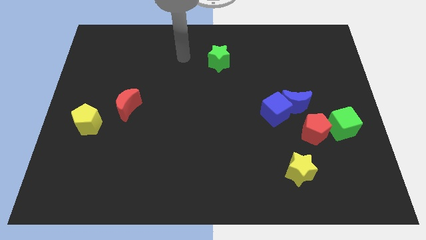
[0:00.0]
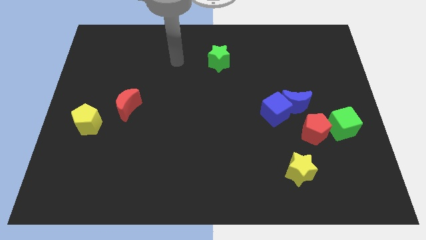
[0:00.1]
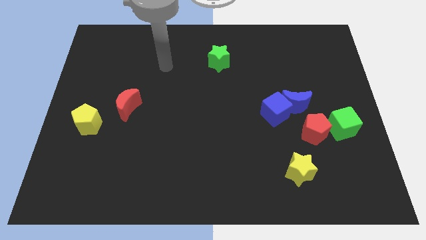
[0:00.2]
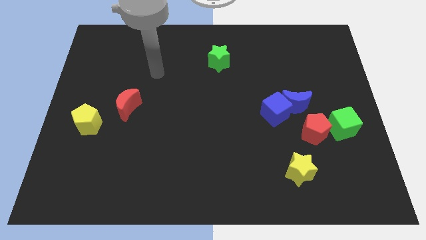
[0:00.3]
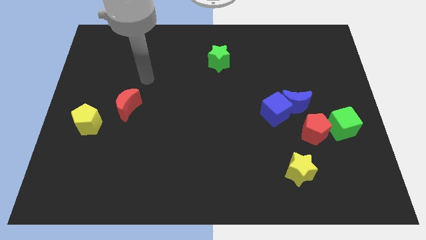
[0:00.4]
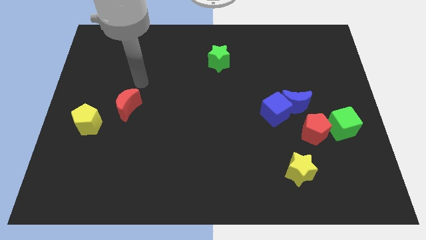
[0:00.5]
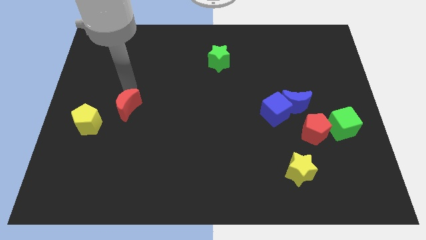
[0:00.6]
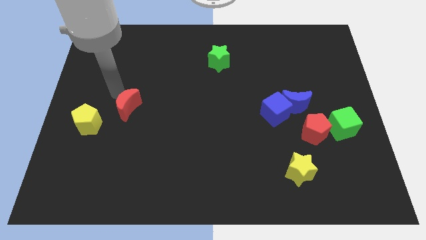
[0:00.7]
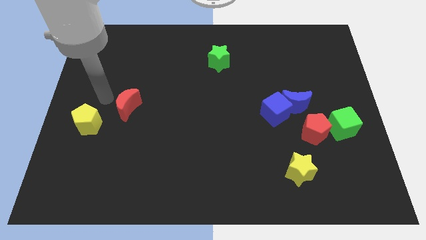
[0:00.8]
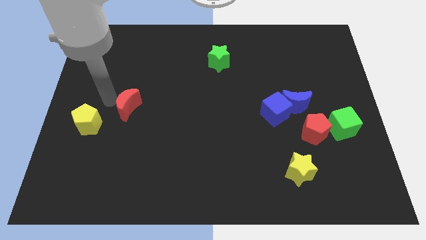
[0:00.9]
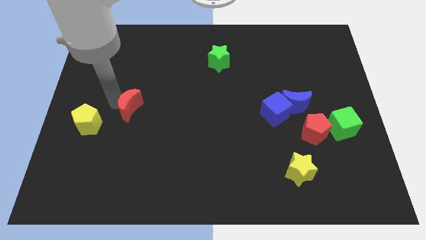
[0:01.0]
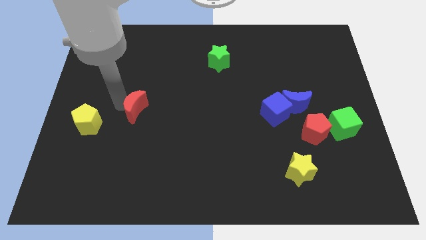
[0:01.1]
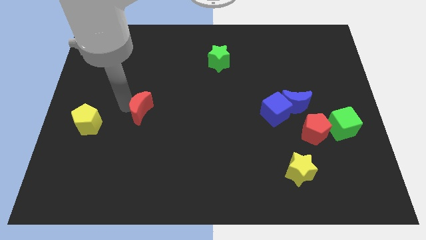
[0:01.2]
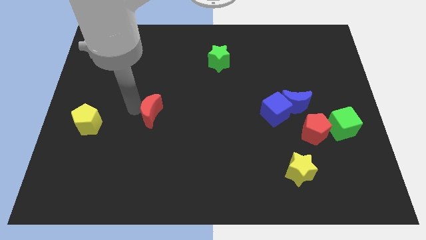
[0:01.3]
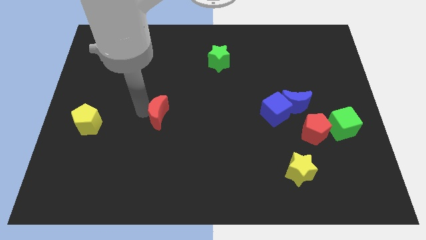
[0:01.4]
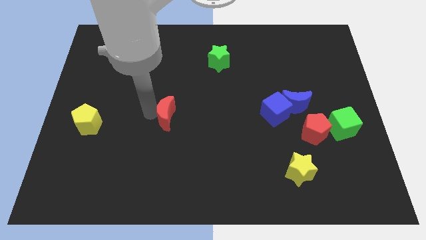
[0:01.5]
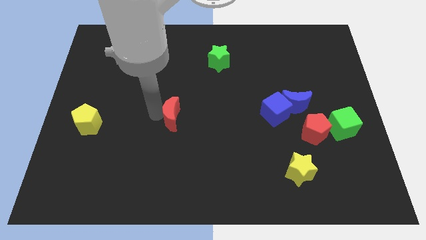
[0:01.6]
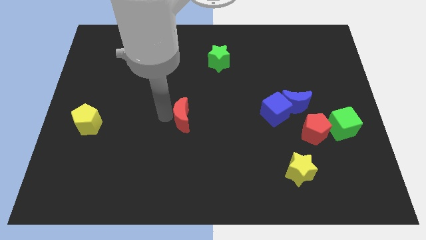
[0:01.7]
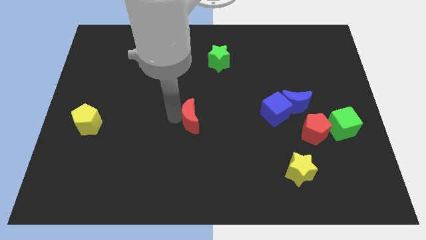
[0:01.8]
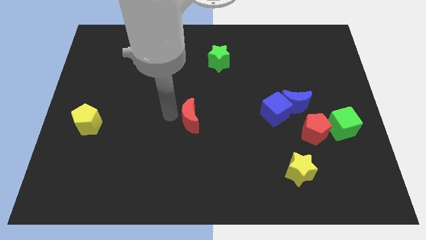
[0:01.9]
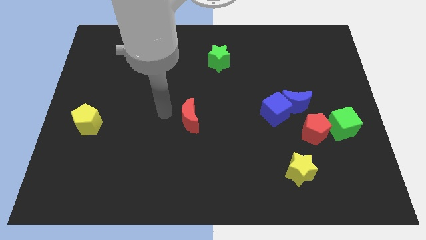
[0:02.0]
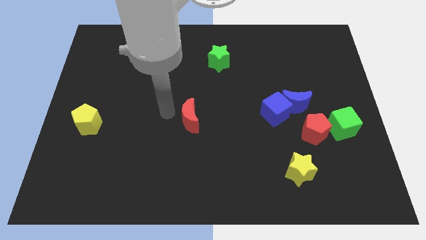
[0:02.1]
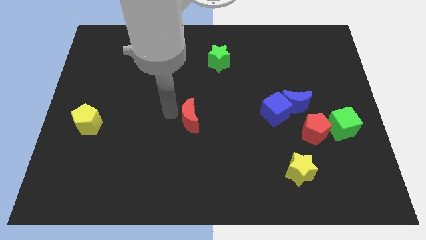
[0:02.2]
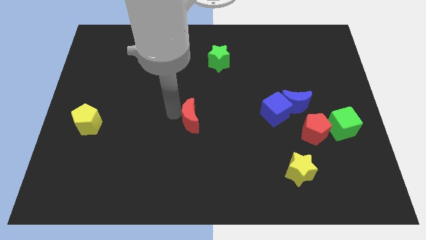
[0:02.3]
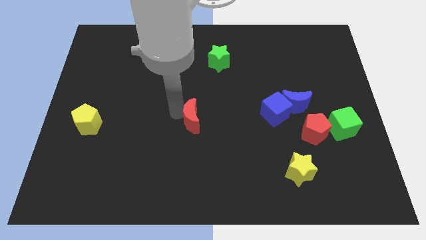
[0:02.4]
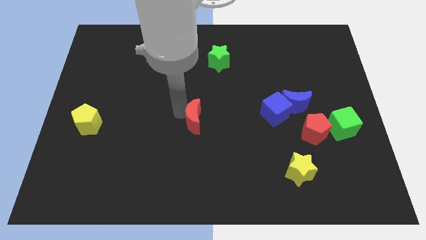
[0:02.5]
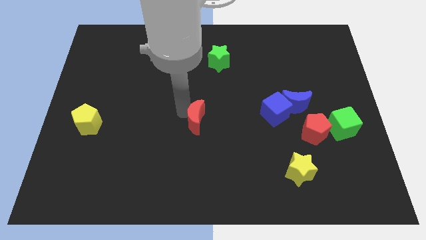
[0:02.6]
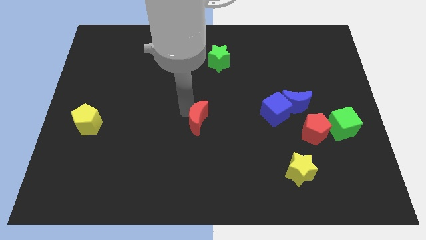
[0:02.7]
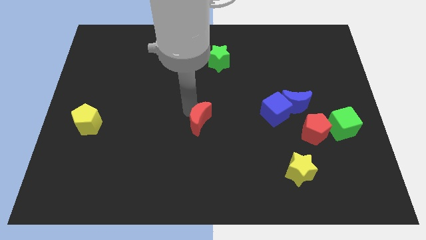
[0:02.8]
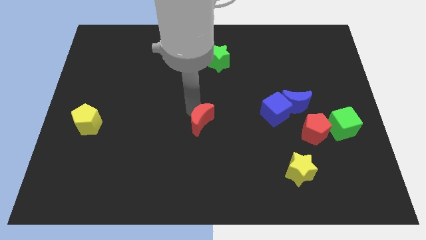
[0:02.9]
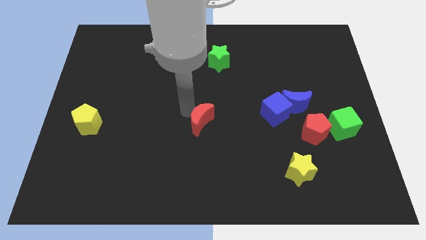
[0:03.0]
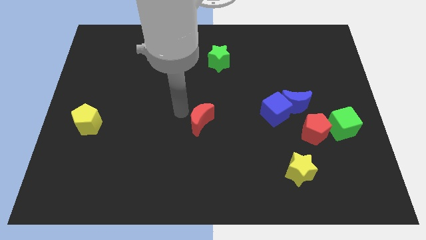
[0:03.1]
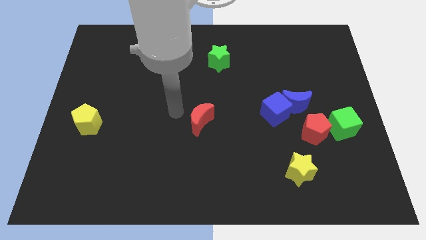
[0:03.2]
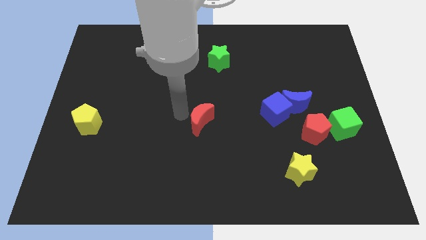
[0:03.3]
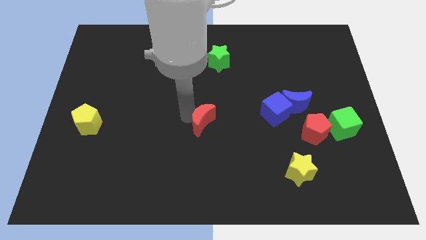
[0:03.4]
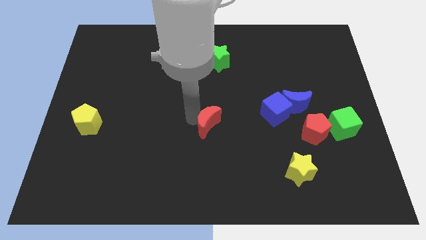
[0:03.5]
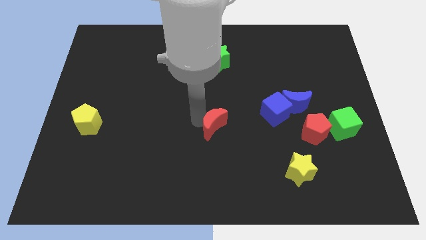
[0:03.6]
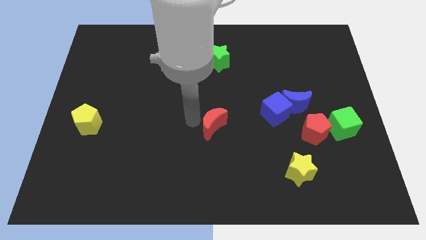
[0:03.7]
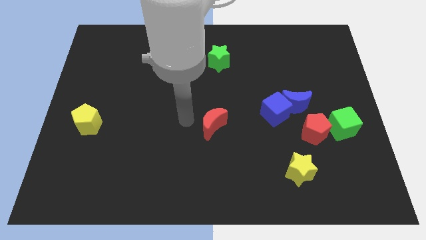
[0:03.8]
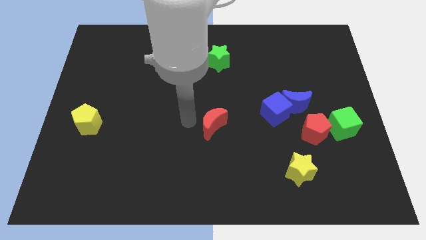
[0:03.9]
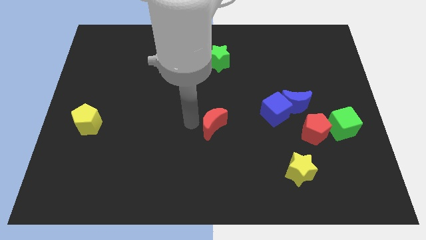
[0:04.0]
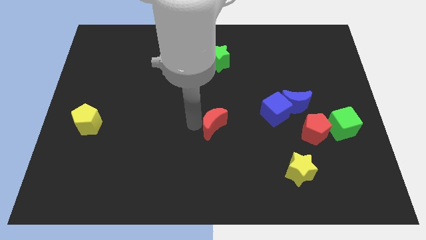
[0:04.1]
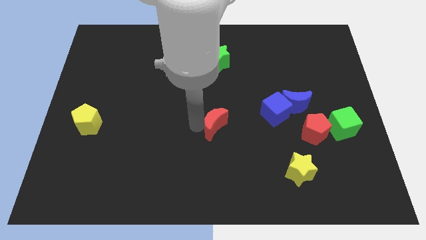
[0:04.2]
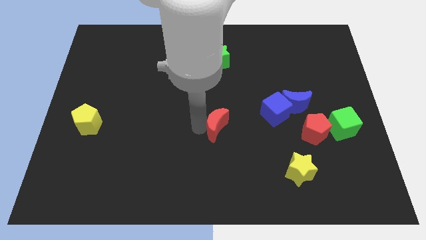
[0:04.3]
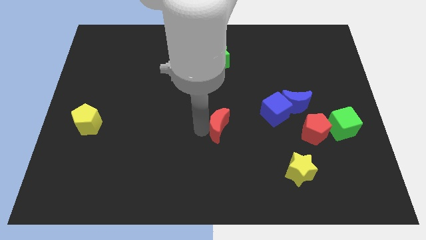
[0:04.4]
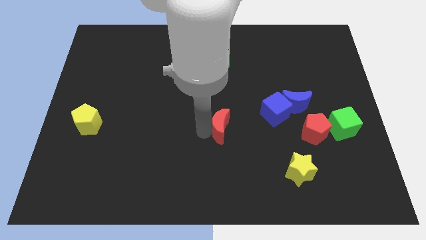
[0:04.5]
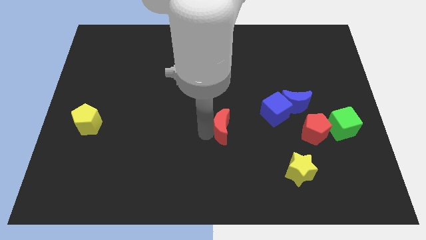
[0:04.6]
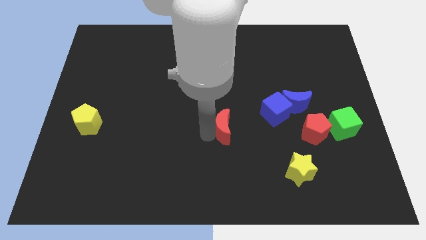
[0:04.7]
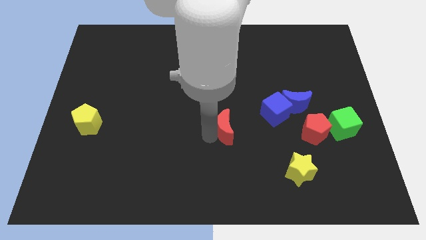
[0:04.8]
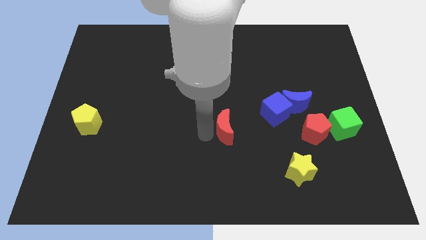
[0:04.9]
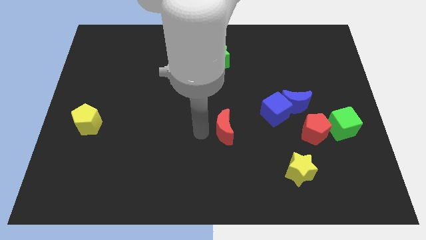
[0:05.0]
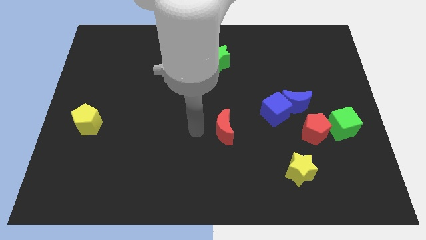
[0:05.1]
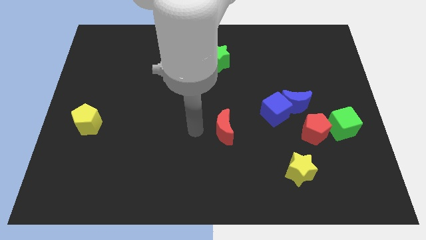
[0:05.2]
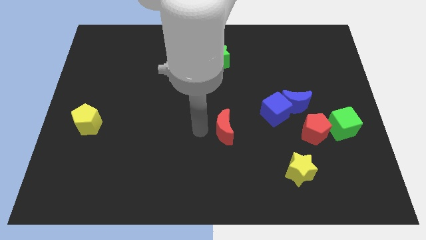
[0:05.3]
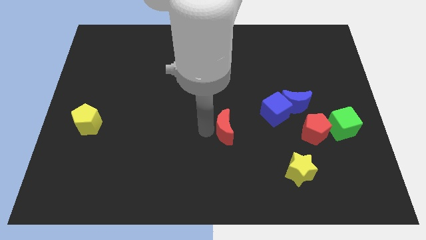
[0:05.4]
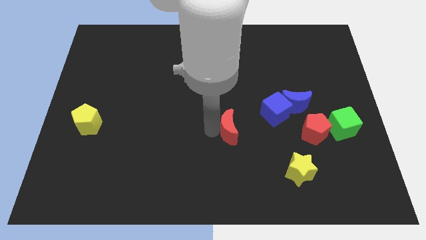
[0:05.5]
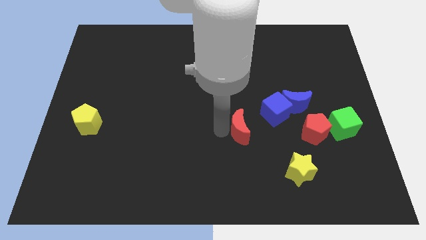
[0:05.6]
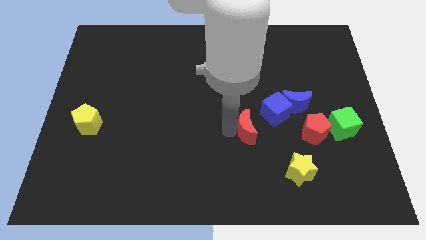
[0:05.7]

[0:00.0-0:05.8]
push the red moon left of the red pentagon

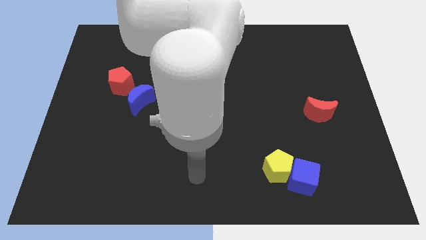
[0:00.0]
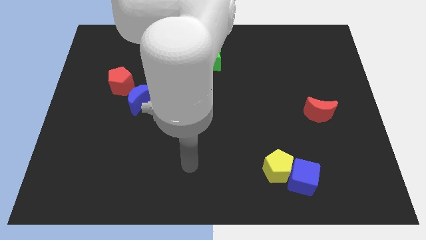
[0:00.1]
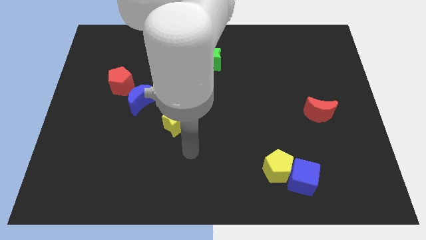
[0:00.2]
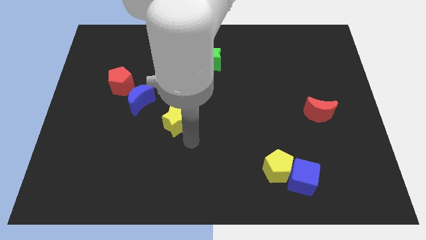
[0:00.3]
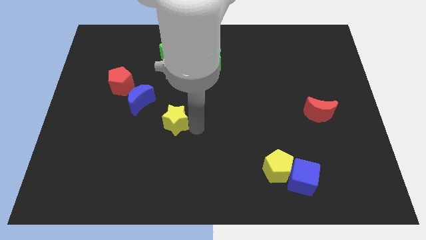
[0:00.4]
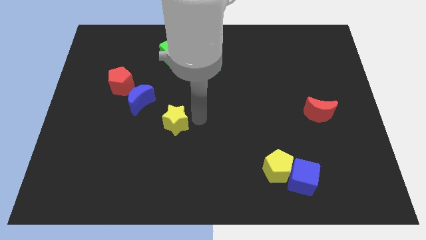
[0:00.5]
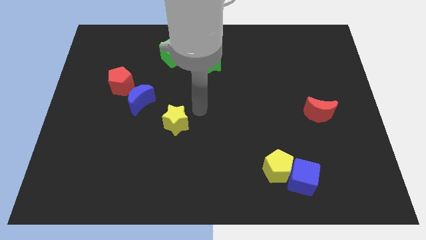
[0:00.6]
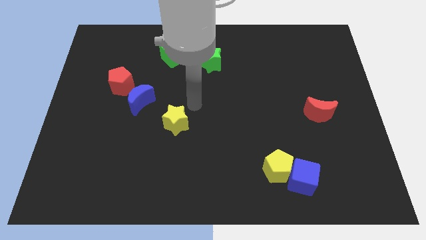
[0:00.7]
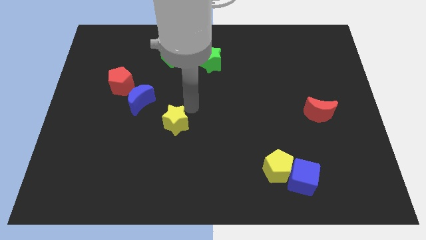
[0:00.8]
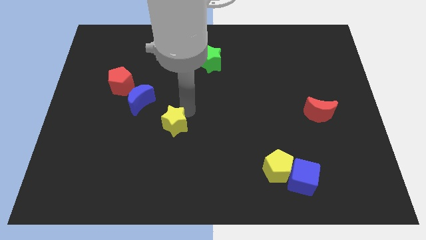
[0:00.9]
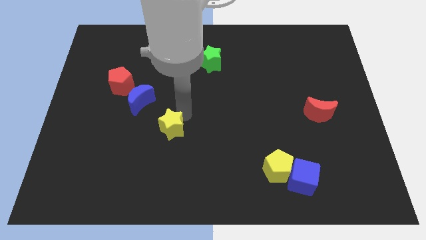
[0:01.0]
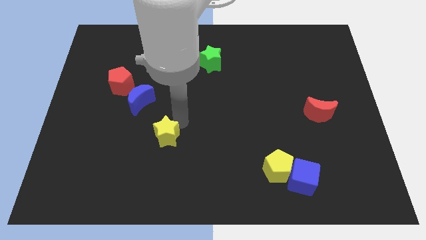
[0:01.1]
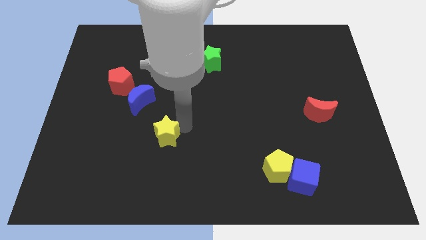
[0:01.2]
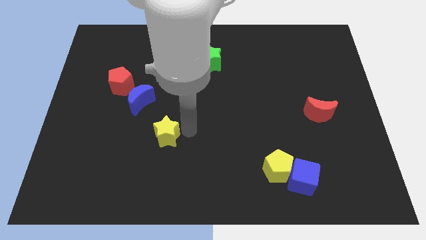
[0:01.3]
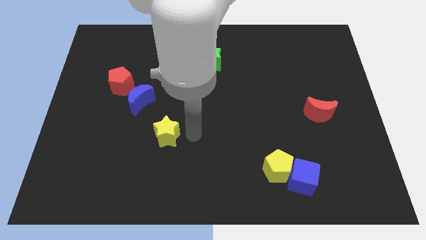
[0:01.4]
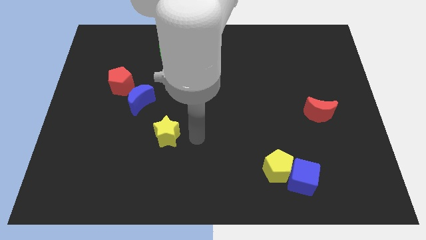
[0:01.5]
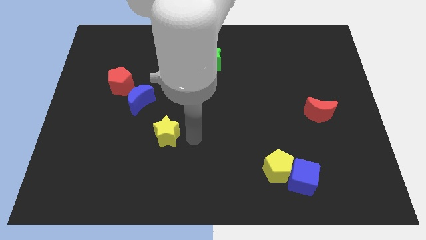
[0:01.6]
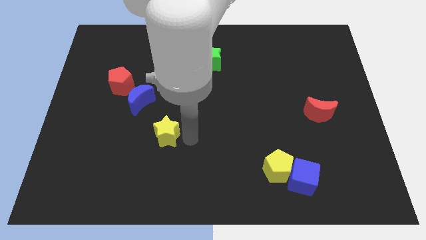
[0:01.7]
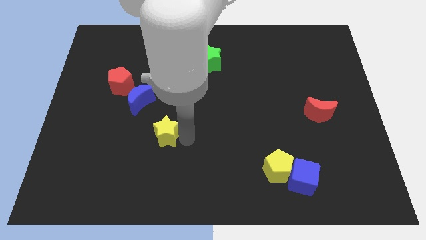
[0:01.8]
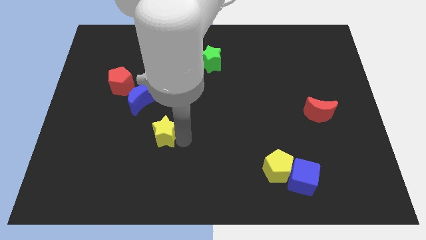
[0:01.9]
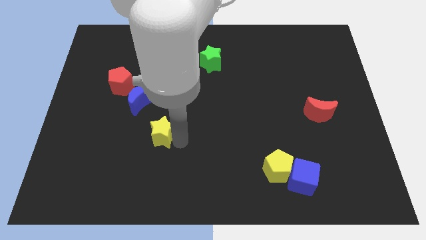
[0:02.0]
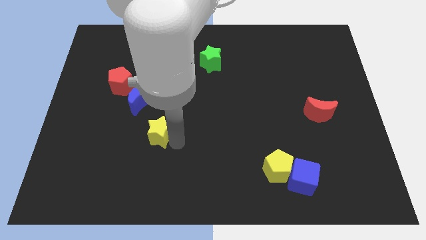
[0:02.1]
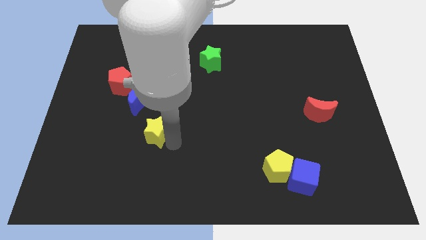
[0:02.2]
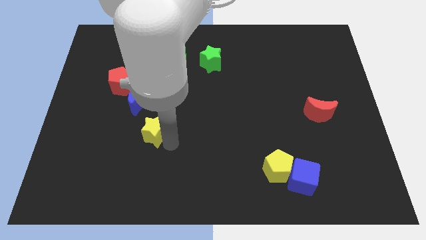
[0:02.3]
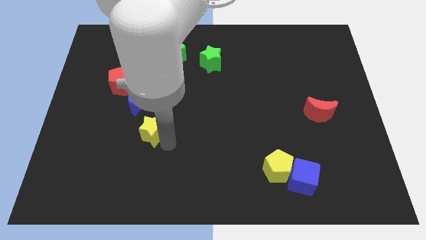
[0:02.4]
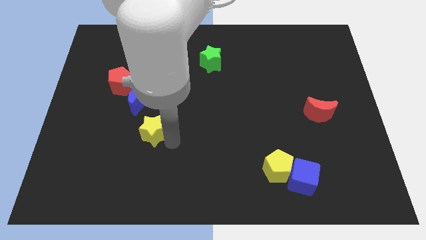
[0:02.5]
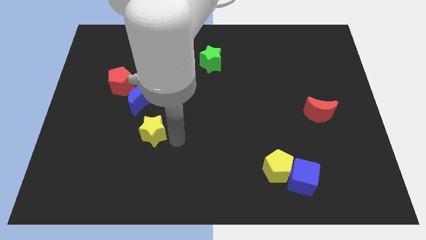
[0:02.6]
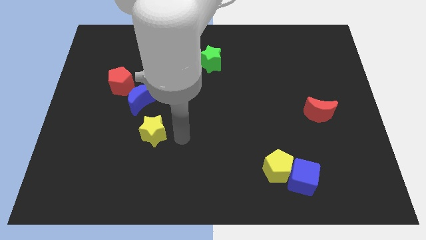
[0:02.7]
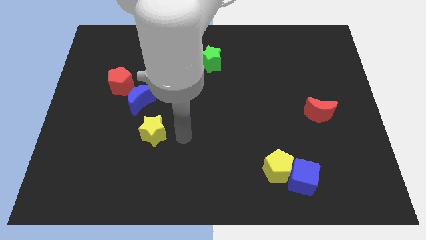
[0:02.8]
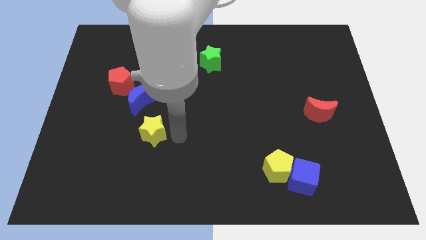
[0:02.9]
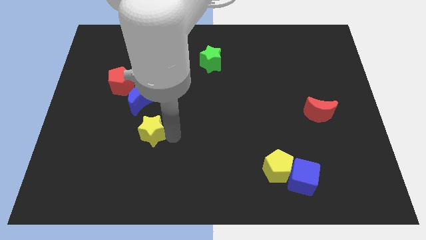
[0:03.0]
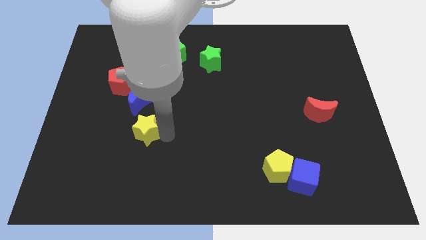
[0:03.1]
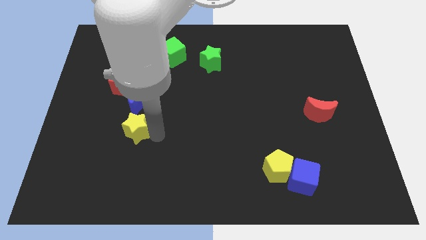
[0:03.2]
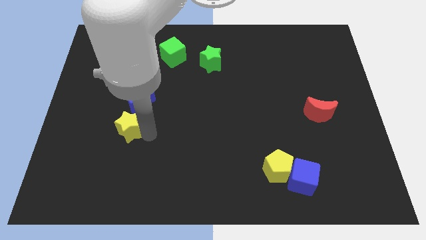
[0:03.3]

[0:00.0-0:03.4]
slide the yellow star below the red pentagon
